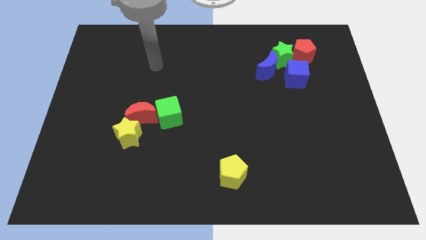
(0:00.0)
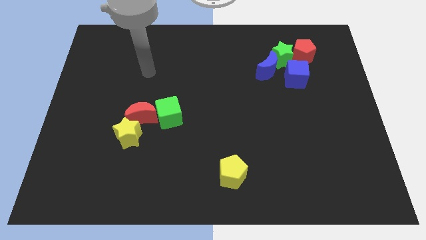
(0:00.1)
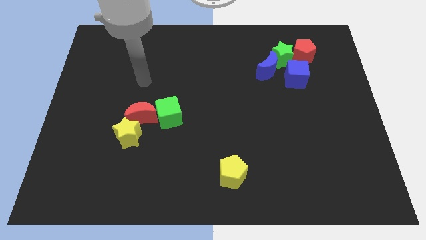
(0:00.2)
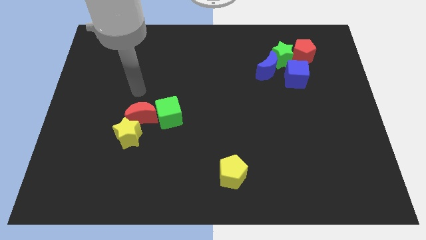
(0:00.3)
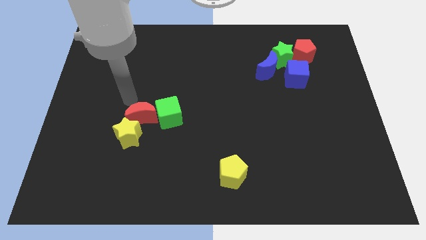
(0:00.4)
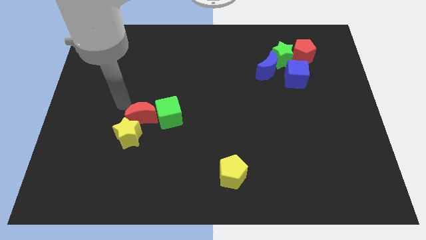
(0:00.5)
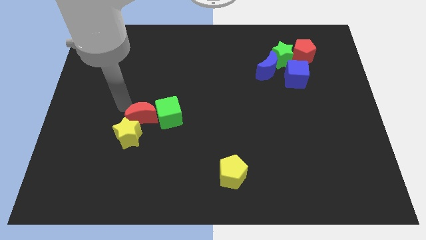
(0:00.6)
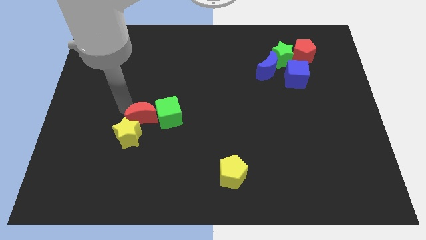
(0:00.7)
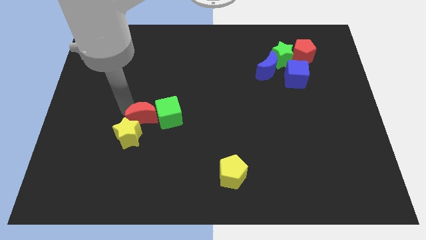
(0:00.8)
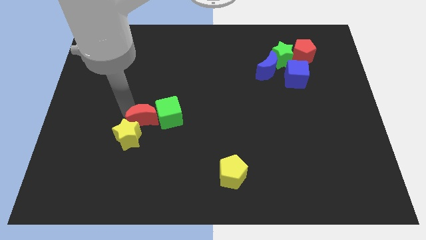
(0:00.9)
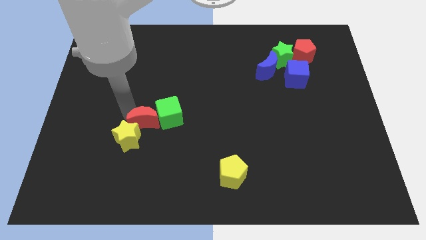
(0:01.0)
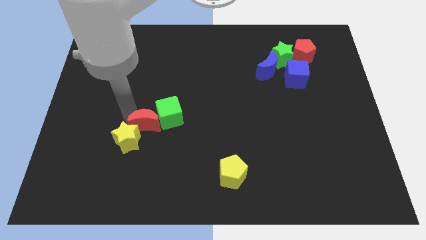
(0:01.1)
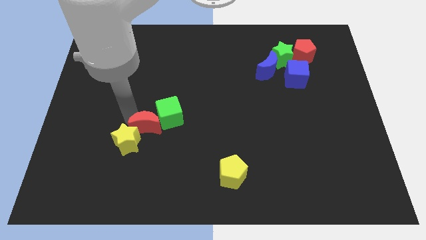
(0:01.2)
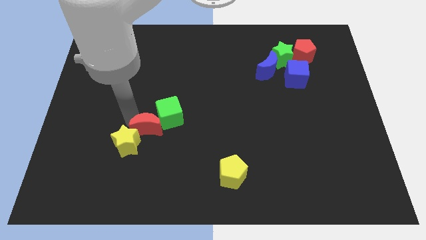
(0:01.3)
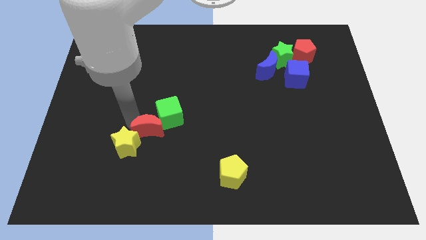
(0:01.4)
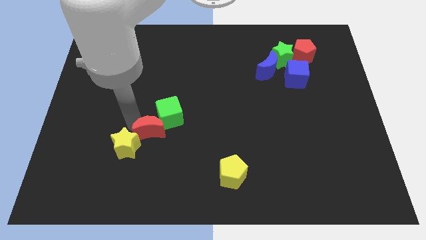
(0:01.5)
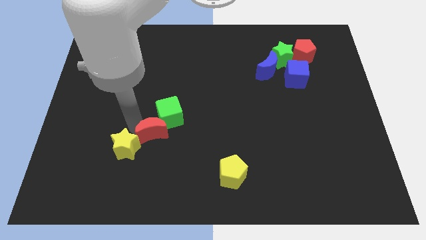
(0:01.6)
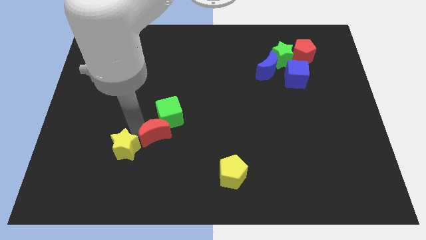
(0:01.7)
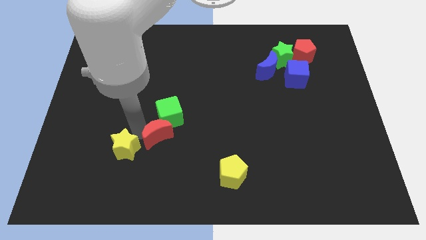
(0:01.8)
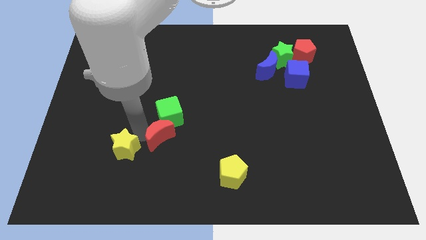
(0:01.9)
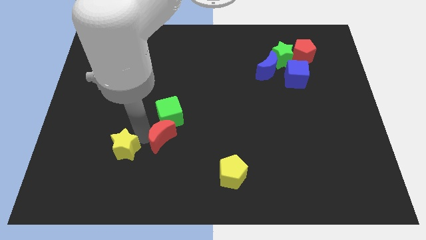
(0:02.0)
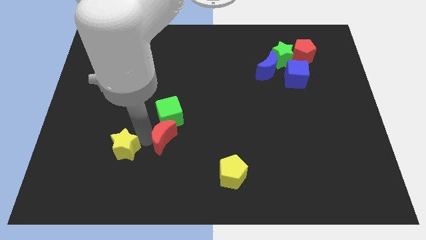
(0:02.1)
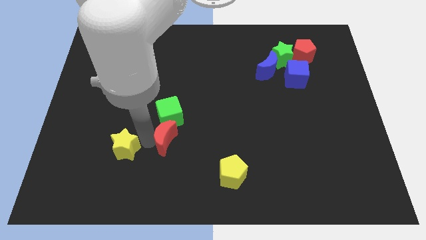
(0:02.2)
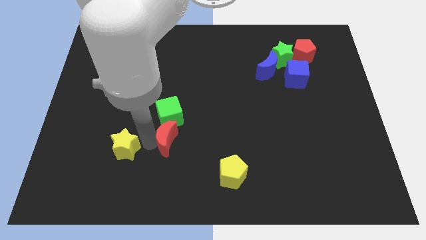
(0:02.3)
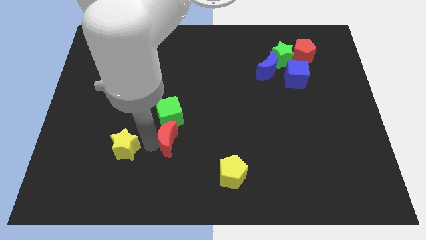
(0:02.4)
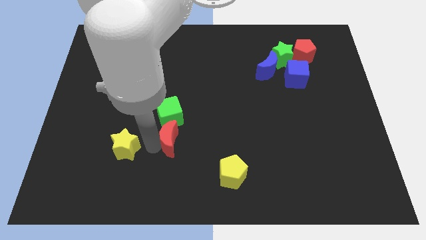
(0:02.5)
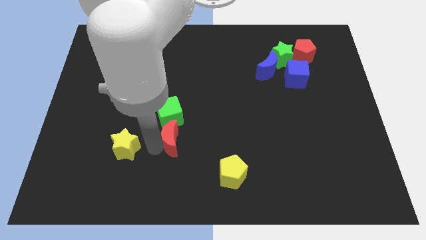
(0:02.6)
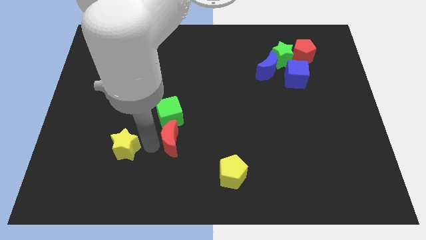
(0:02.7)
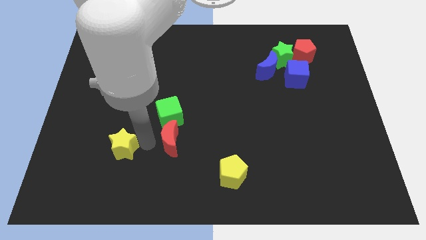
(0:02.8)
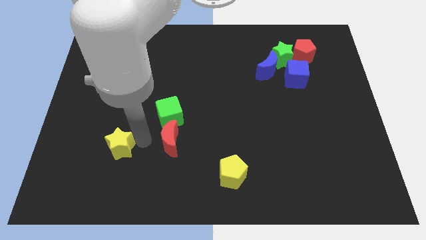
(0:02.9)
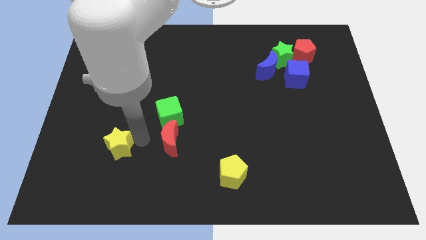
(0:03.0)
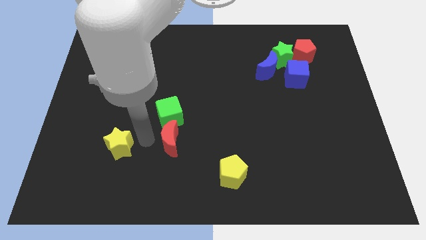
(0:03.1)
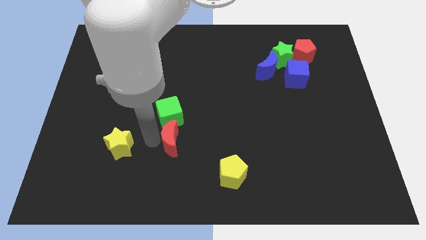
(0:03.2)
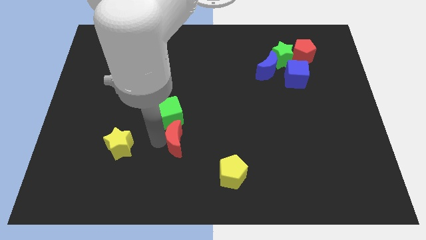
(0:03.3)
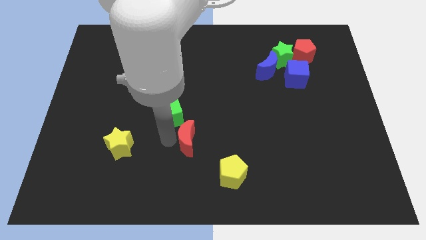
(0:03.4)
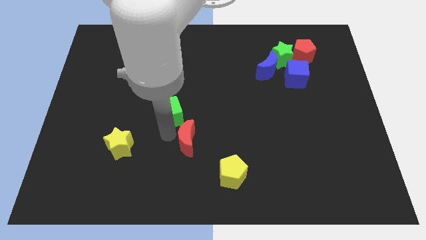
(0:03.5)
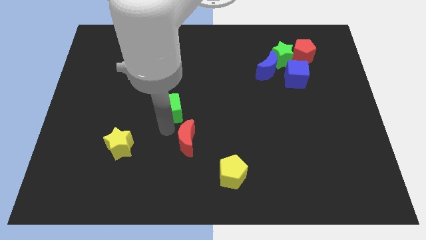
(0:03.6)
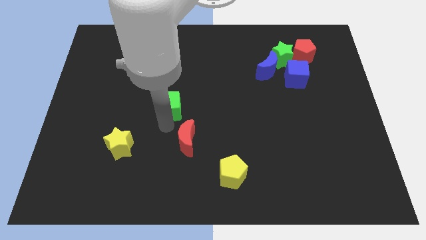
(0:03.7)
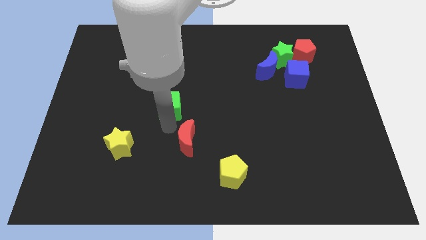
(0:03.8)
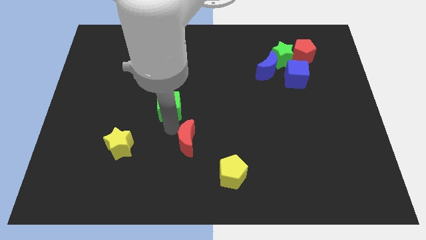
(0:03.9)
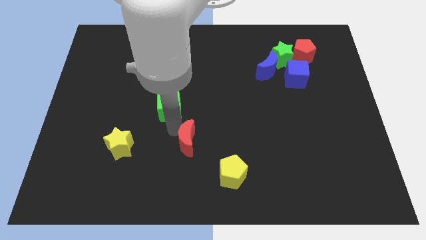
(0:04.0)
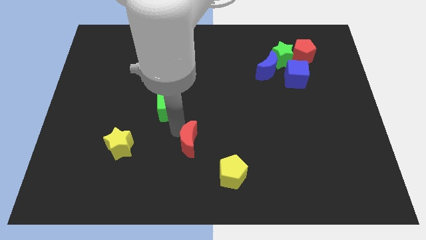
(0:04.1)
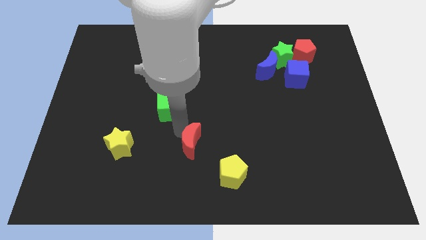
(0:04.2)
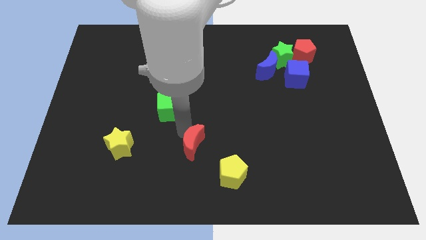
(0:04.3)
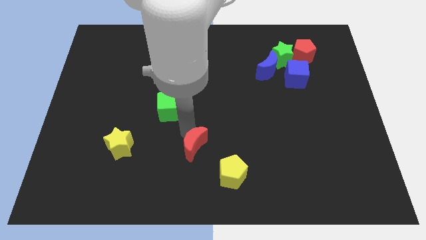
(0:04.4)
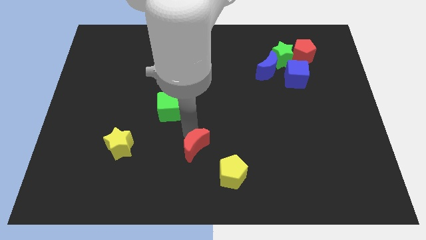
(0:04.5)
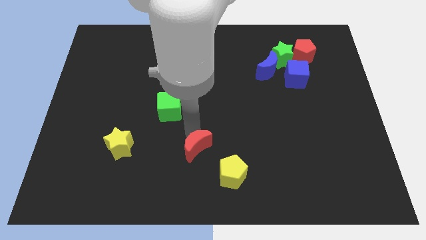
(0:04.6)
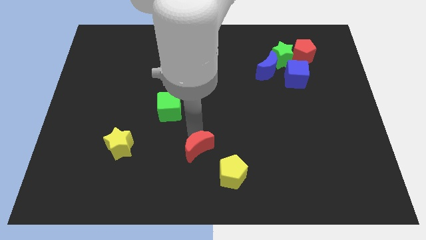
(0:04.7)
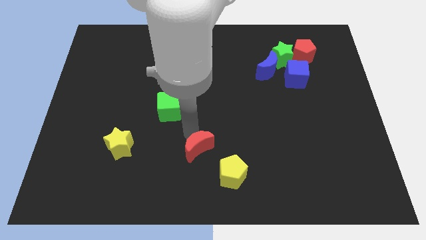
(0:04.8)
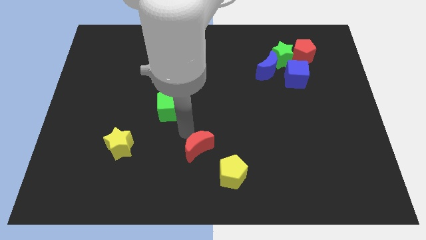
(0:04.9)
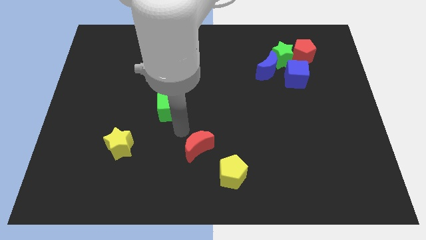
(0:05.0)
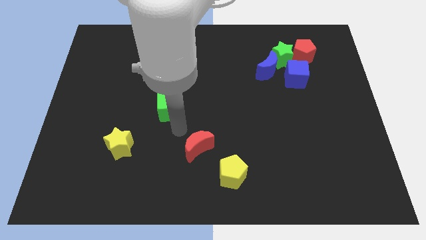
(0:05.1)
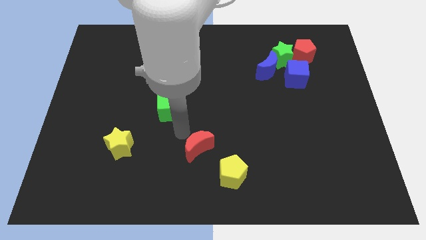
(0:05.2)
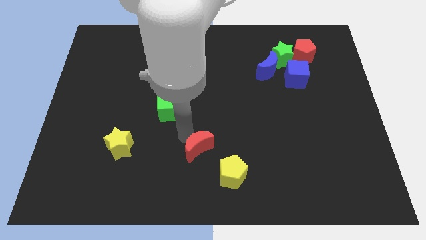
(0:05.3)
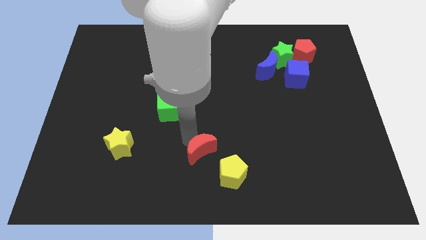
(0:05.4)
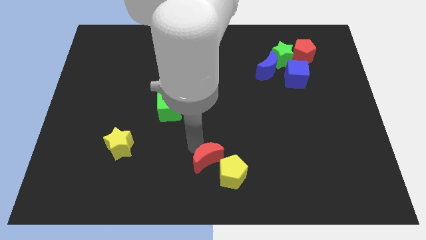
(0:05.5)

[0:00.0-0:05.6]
slide the red moon to the yellow pentagon
